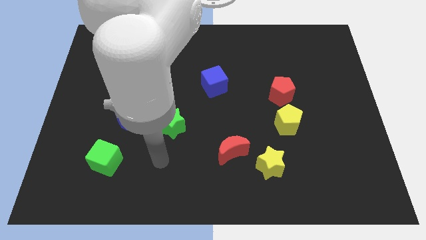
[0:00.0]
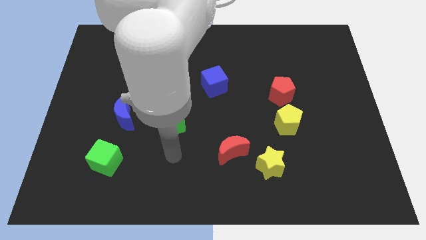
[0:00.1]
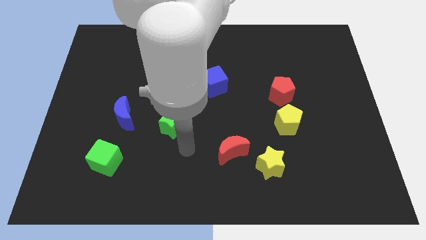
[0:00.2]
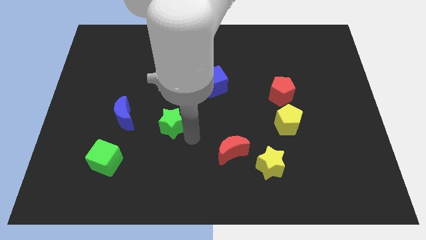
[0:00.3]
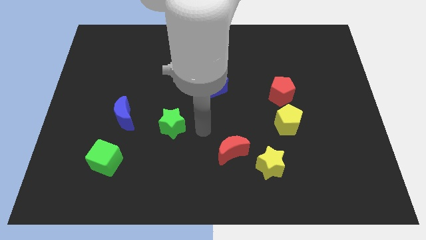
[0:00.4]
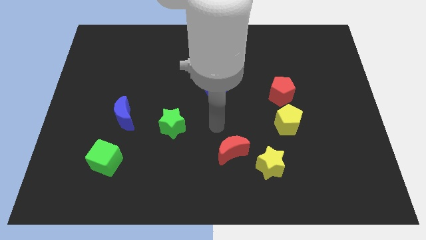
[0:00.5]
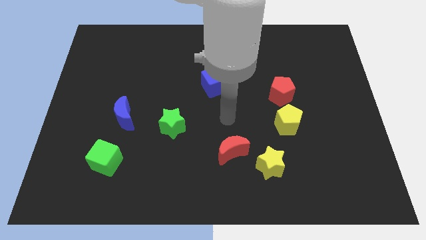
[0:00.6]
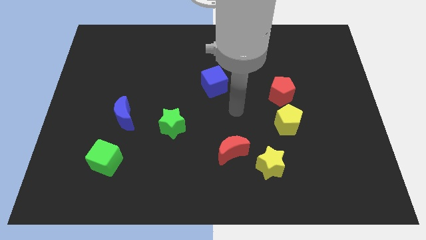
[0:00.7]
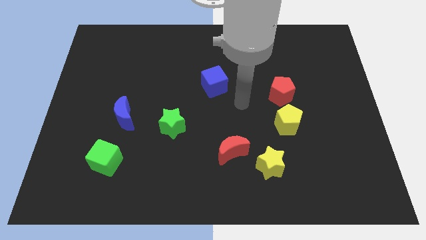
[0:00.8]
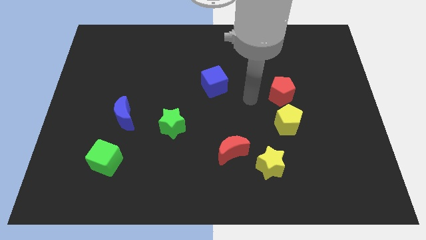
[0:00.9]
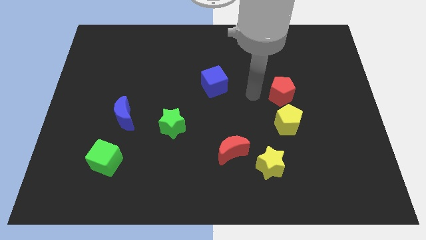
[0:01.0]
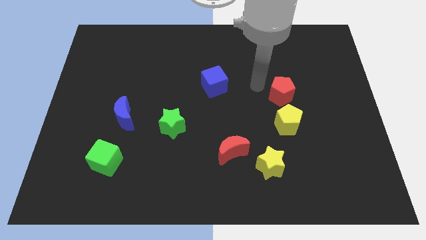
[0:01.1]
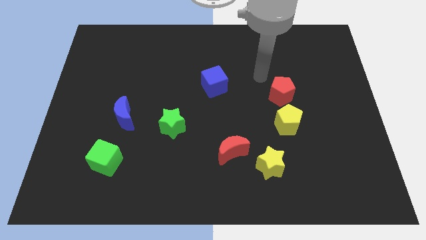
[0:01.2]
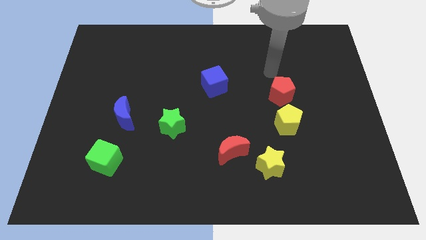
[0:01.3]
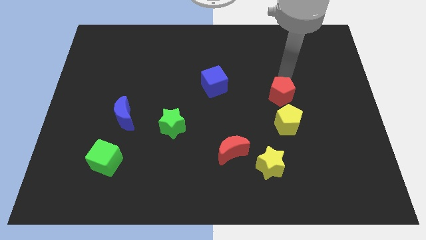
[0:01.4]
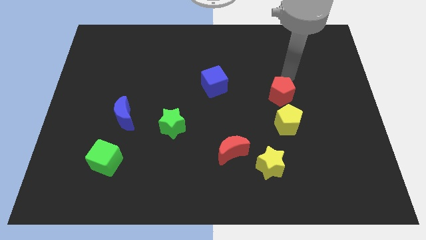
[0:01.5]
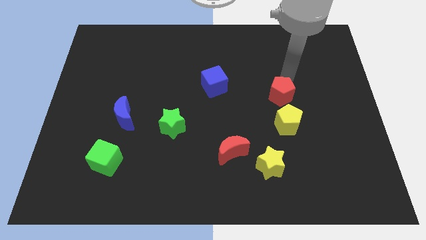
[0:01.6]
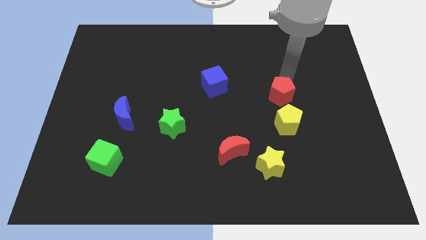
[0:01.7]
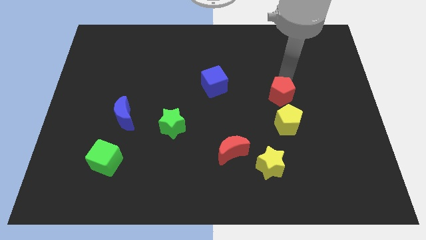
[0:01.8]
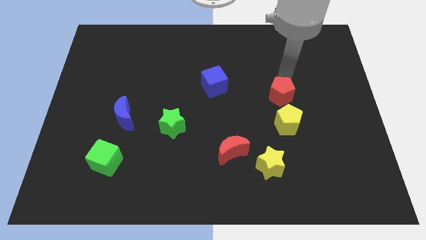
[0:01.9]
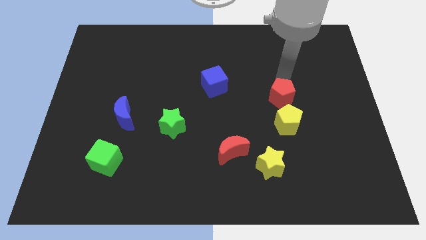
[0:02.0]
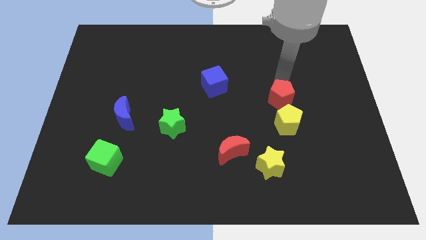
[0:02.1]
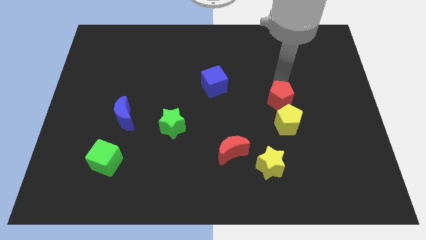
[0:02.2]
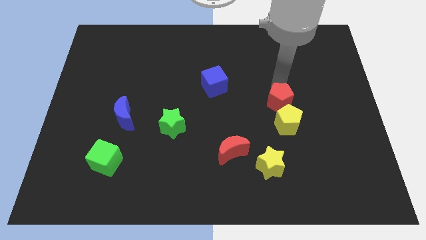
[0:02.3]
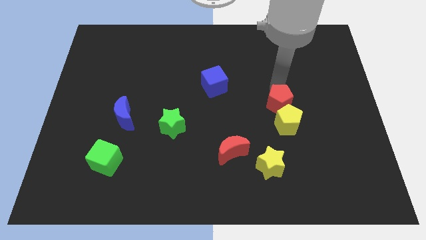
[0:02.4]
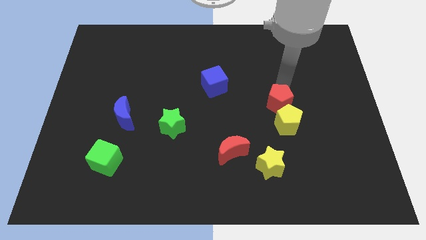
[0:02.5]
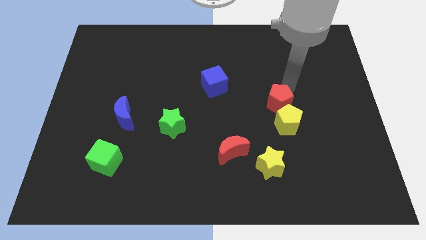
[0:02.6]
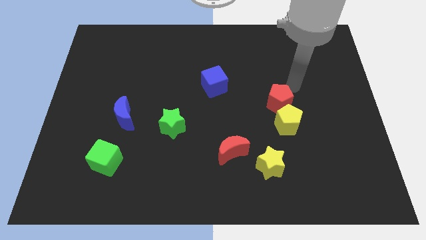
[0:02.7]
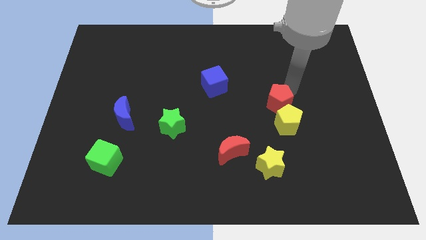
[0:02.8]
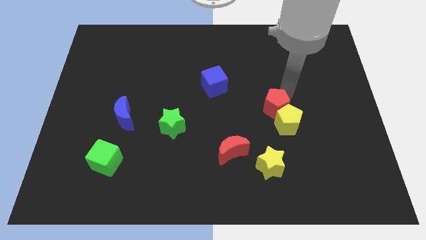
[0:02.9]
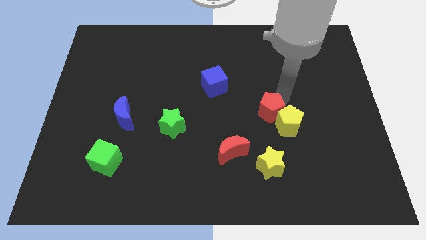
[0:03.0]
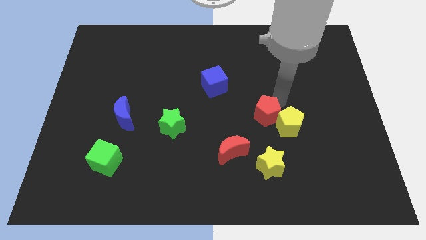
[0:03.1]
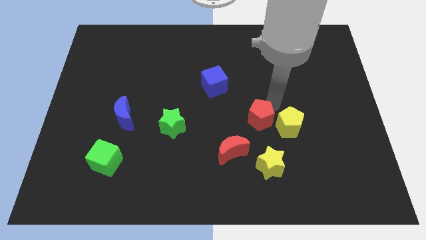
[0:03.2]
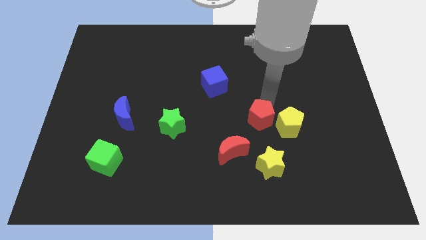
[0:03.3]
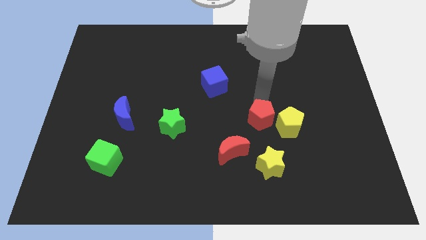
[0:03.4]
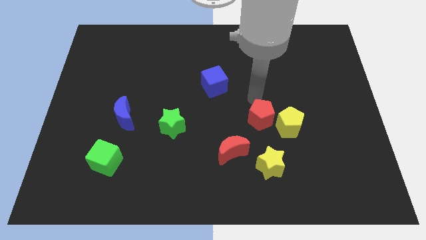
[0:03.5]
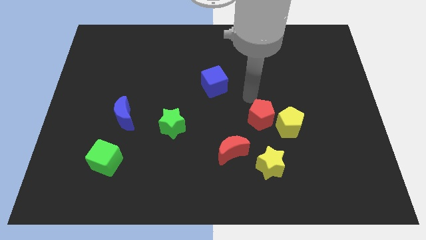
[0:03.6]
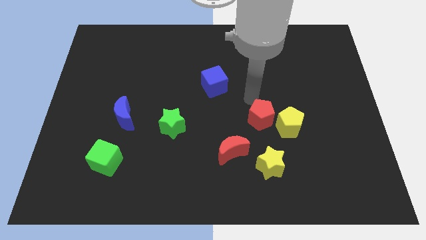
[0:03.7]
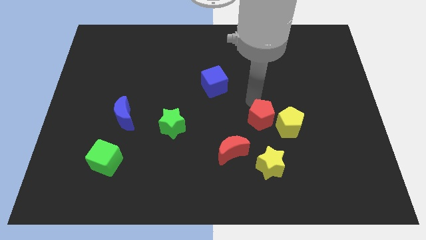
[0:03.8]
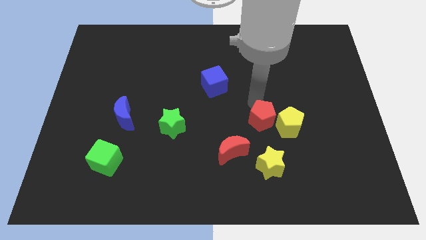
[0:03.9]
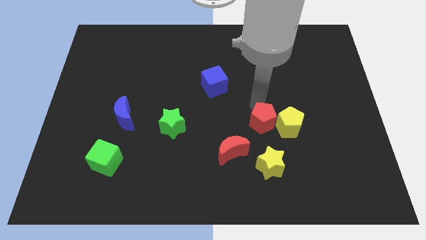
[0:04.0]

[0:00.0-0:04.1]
move the red pentagon a little downwards

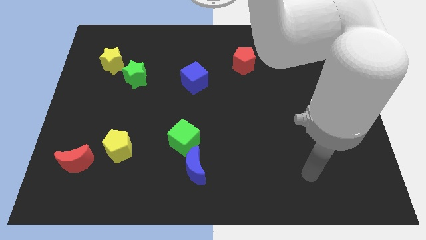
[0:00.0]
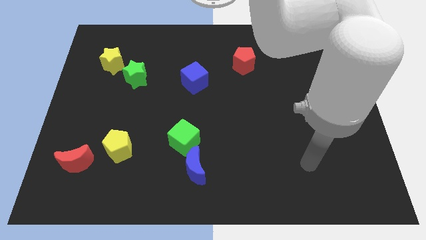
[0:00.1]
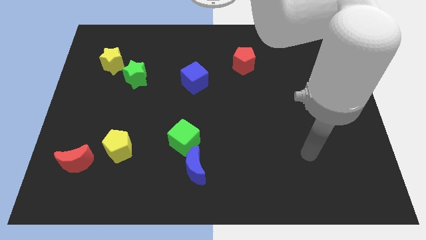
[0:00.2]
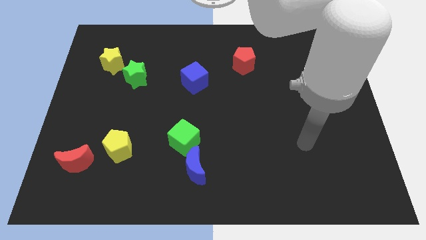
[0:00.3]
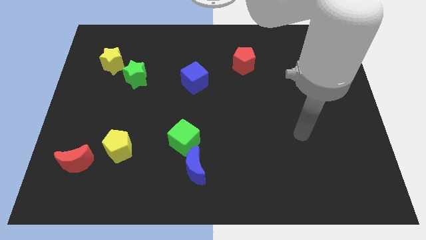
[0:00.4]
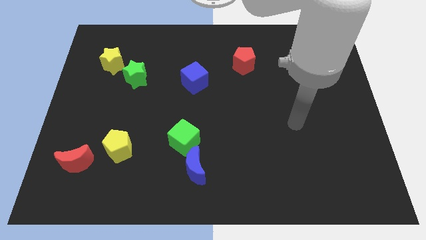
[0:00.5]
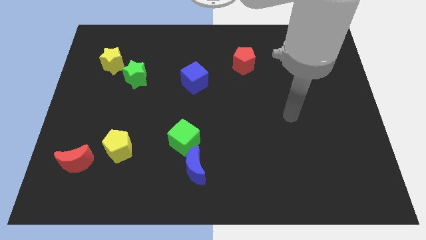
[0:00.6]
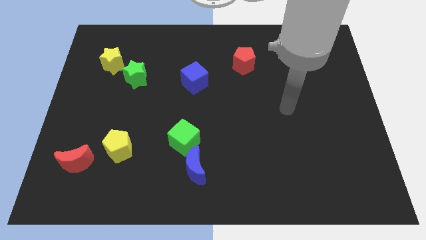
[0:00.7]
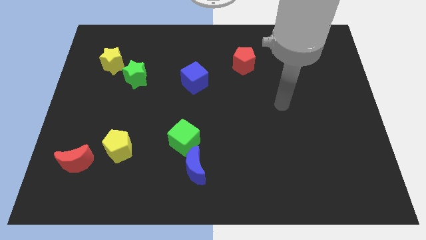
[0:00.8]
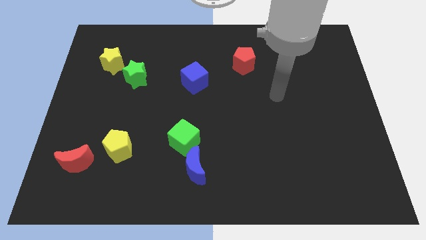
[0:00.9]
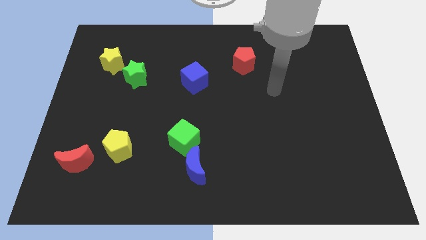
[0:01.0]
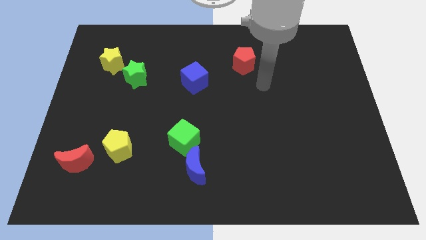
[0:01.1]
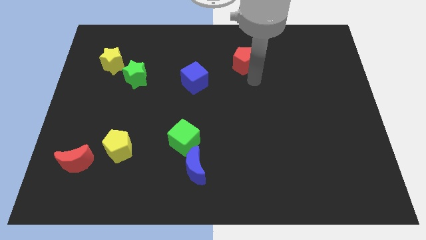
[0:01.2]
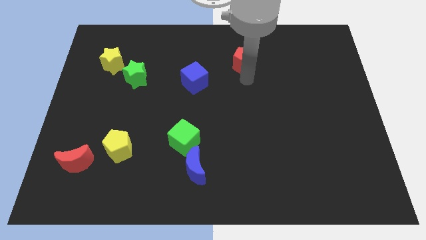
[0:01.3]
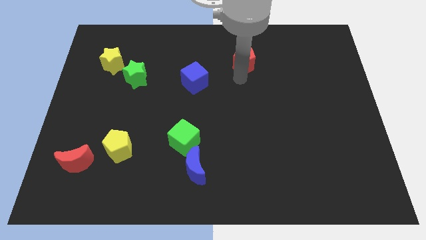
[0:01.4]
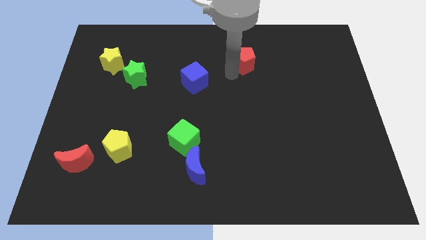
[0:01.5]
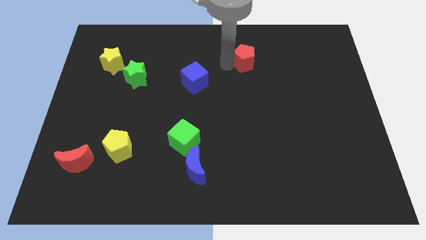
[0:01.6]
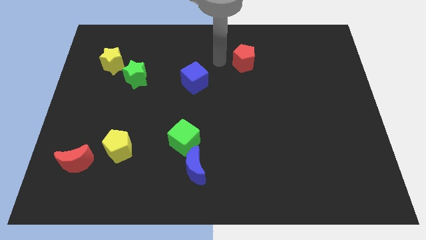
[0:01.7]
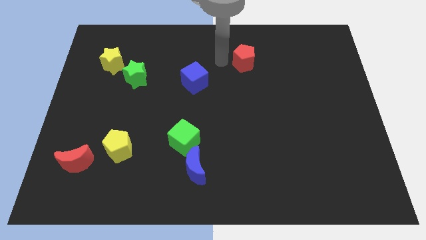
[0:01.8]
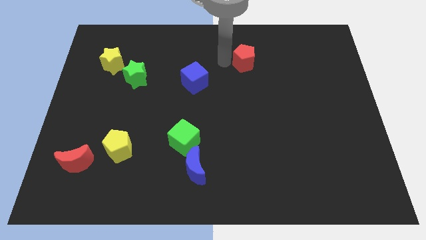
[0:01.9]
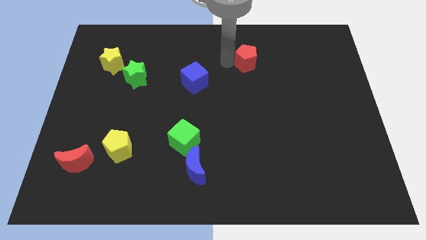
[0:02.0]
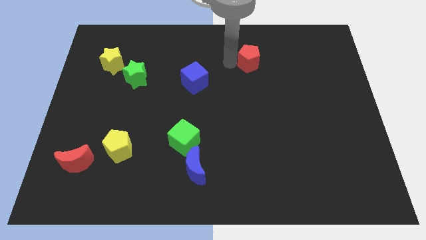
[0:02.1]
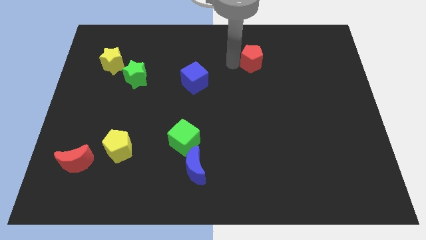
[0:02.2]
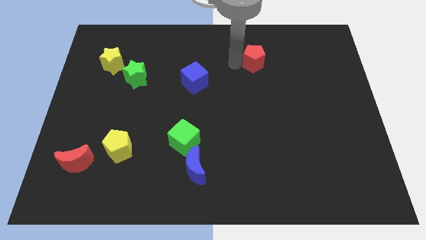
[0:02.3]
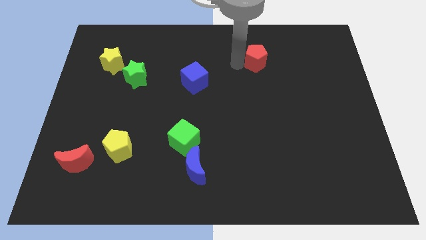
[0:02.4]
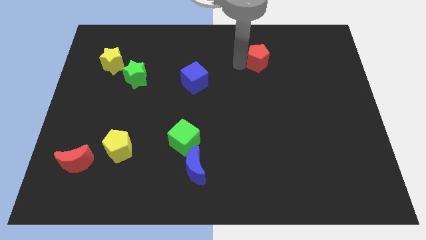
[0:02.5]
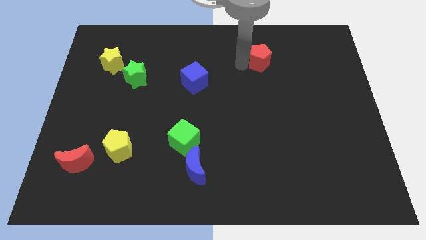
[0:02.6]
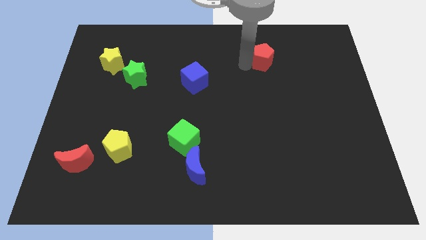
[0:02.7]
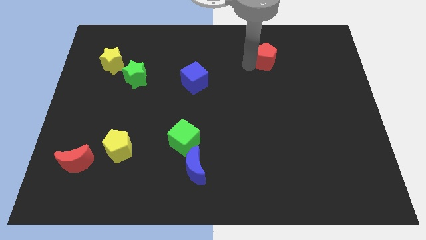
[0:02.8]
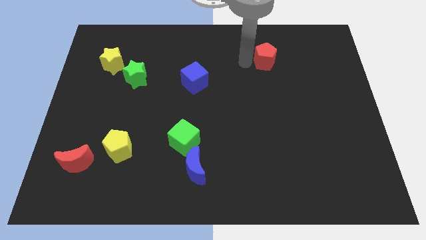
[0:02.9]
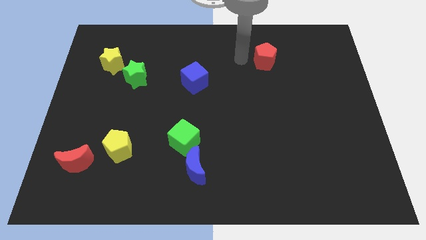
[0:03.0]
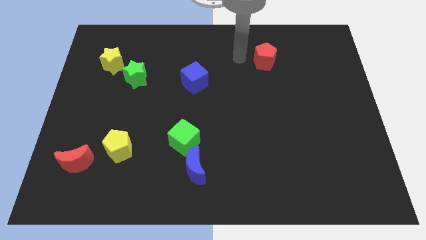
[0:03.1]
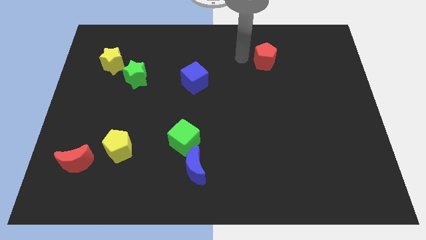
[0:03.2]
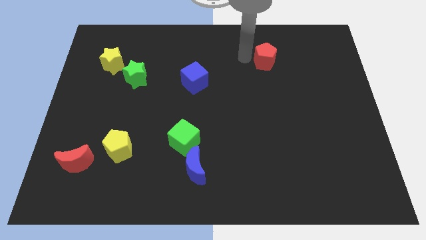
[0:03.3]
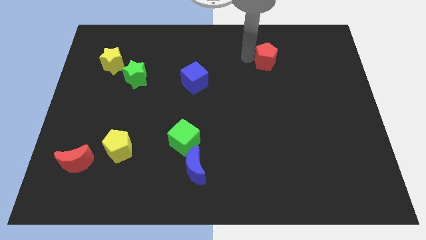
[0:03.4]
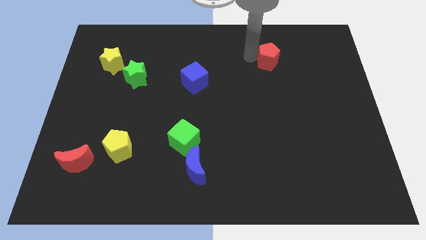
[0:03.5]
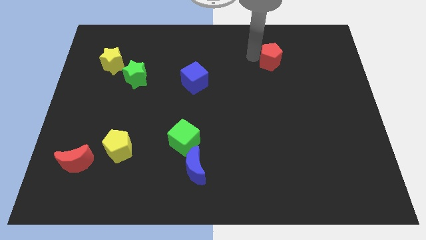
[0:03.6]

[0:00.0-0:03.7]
slide the red pentagon right somewhat

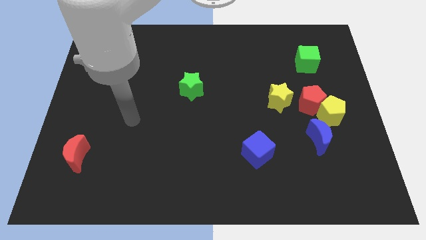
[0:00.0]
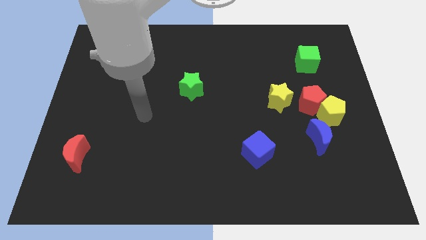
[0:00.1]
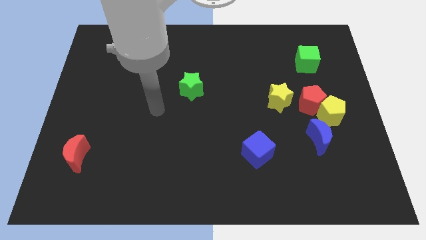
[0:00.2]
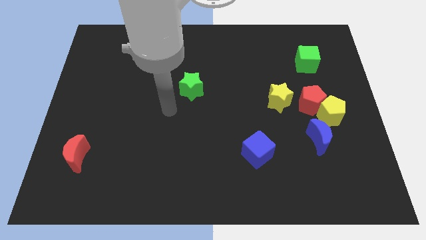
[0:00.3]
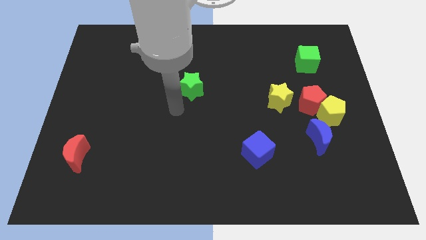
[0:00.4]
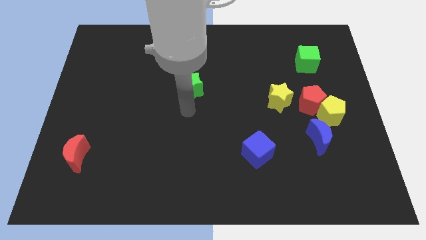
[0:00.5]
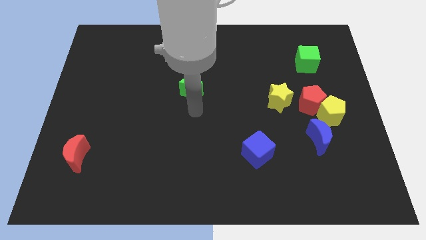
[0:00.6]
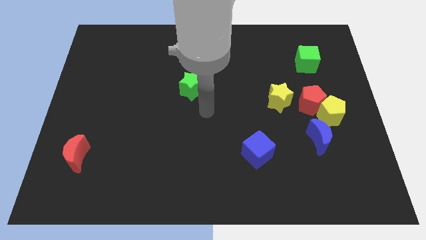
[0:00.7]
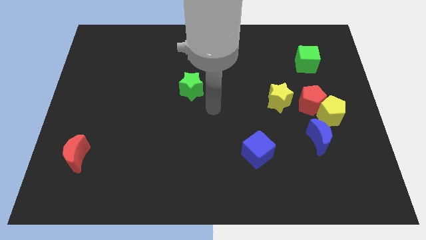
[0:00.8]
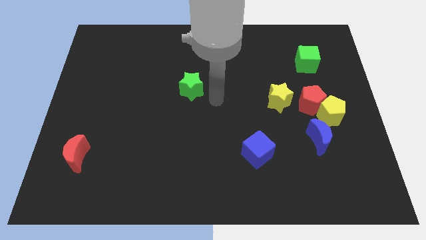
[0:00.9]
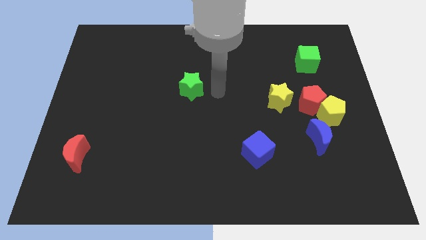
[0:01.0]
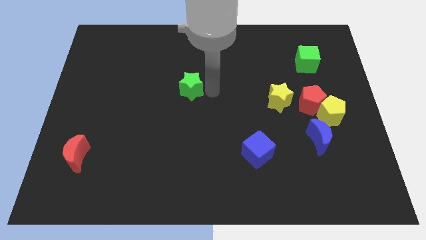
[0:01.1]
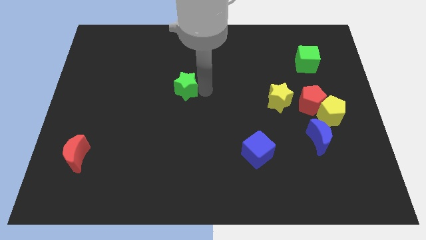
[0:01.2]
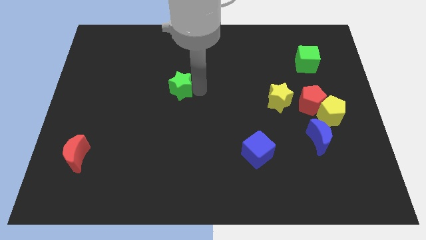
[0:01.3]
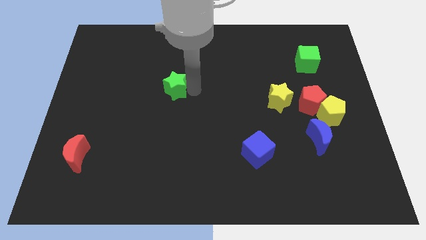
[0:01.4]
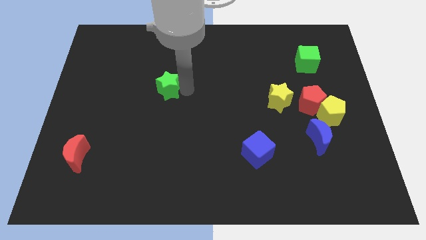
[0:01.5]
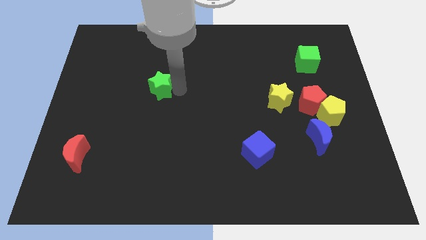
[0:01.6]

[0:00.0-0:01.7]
slightly slide the green star left
